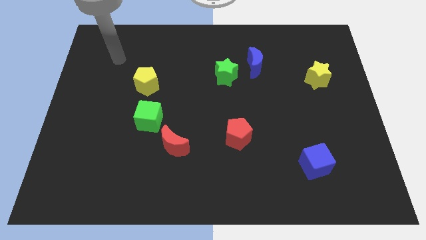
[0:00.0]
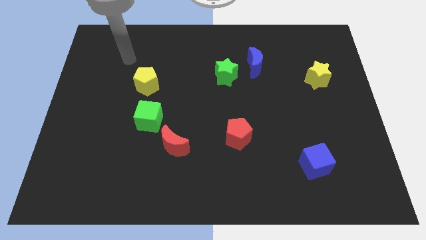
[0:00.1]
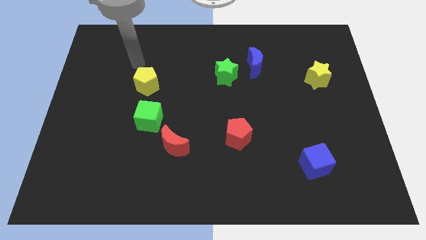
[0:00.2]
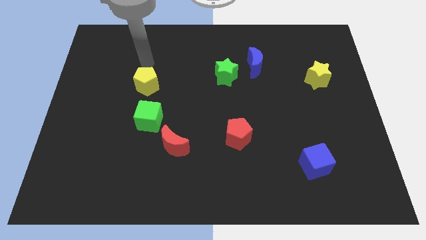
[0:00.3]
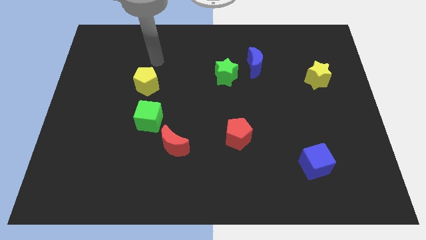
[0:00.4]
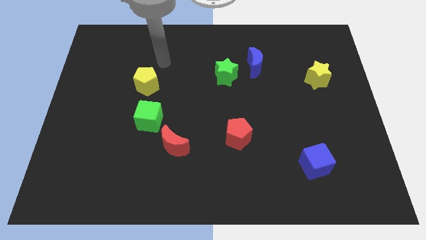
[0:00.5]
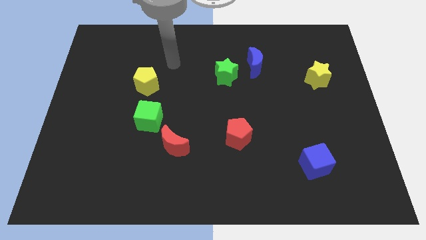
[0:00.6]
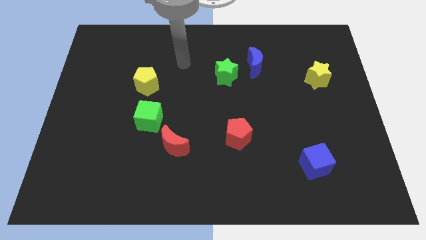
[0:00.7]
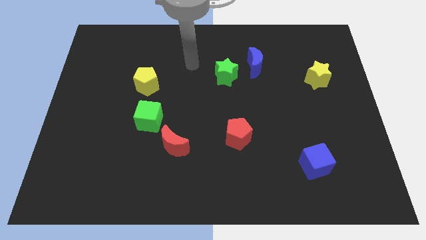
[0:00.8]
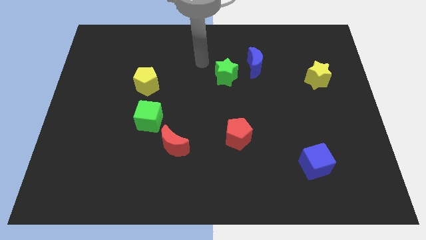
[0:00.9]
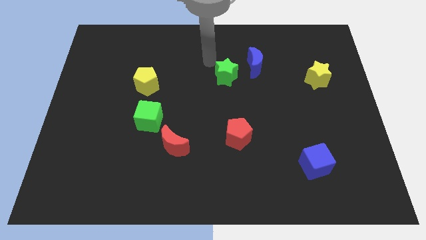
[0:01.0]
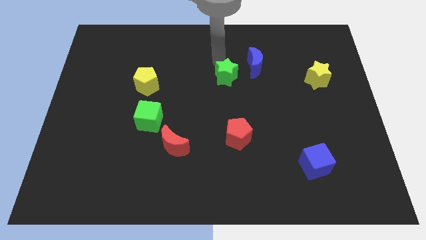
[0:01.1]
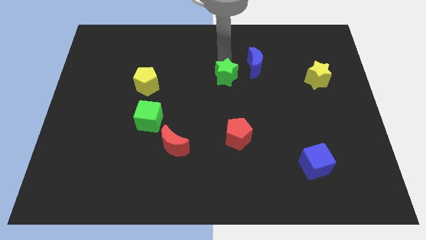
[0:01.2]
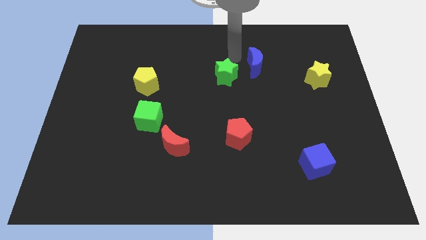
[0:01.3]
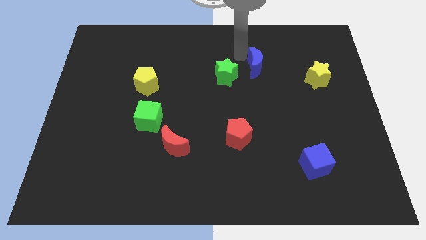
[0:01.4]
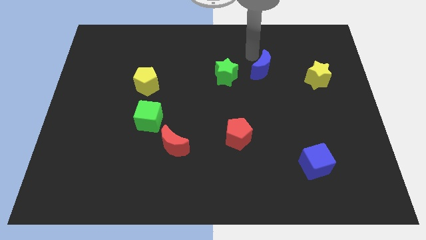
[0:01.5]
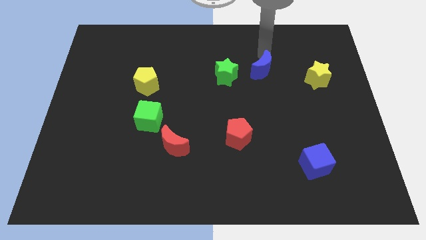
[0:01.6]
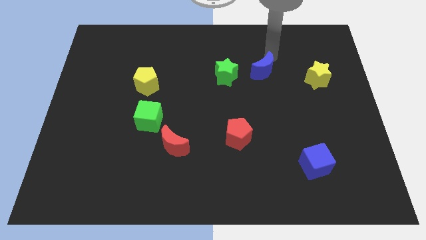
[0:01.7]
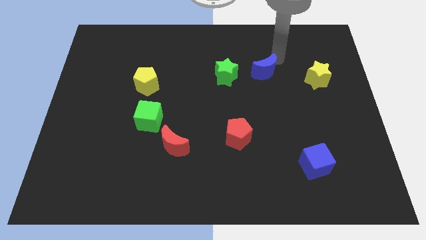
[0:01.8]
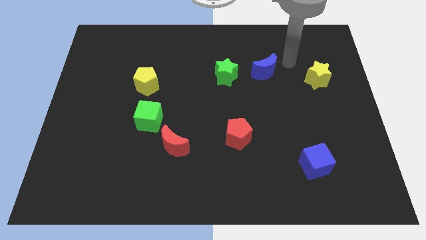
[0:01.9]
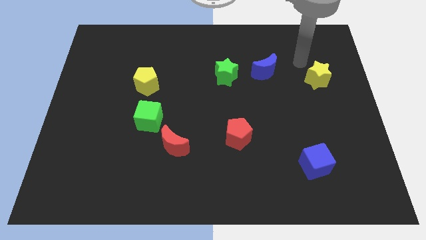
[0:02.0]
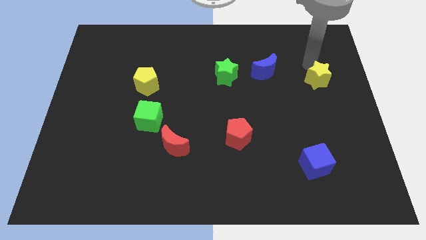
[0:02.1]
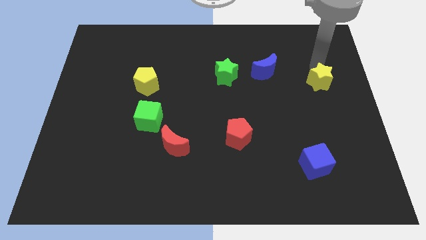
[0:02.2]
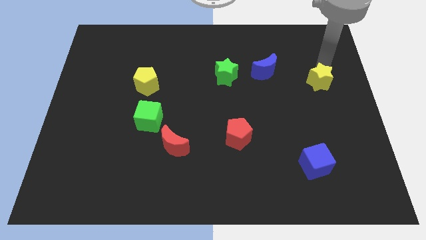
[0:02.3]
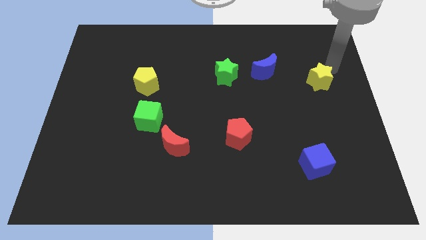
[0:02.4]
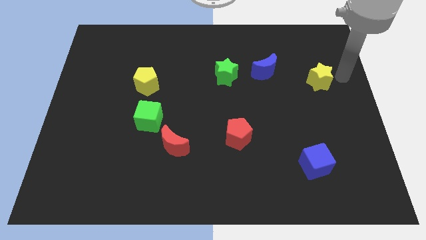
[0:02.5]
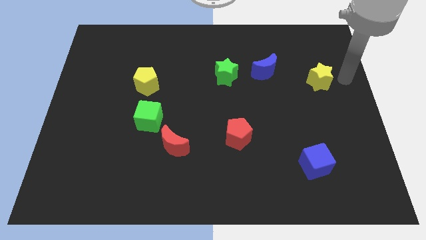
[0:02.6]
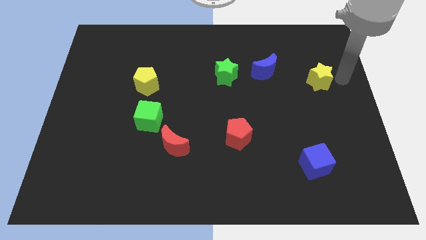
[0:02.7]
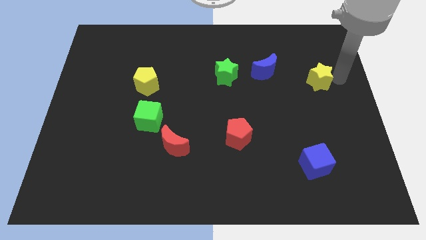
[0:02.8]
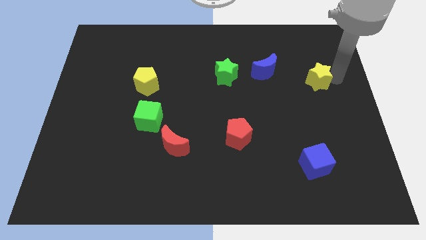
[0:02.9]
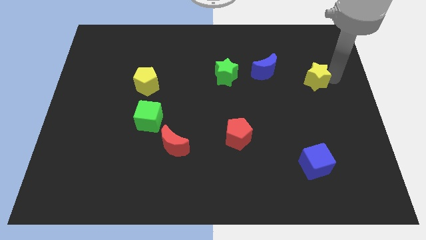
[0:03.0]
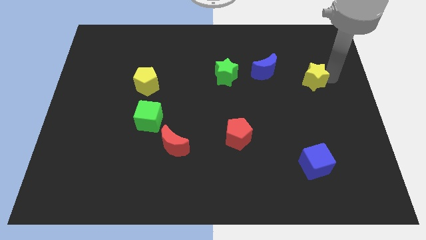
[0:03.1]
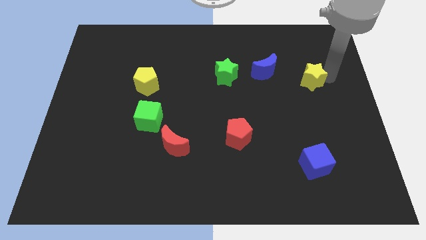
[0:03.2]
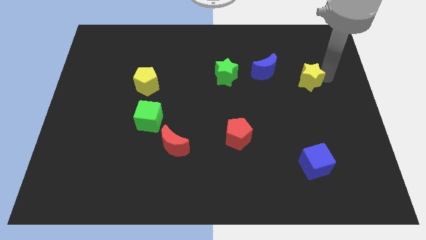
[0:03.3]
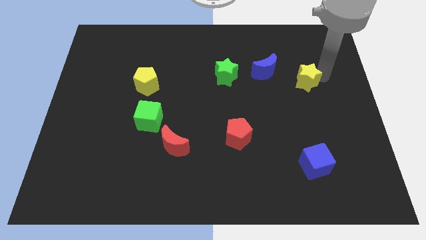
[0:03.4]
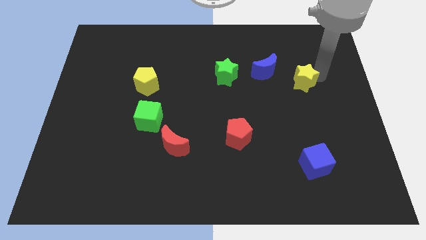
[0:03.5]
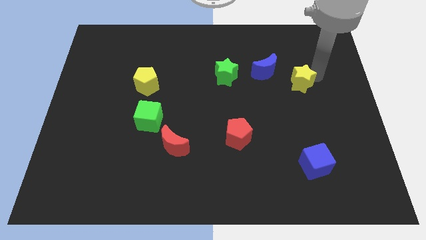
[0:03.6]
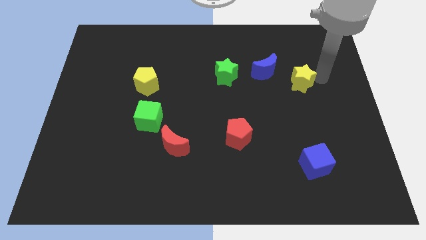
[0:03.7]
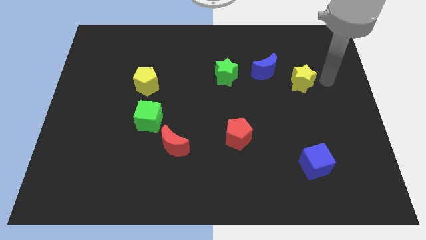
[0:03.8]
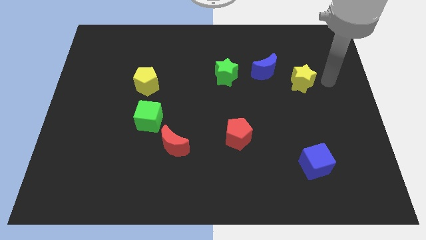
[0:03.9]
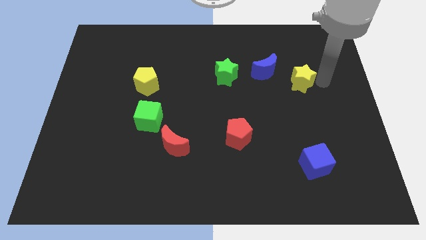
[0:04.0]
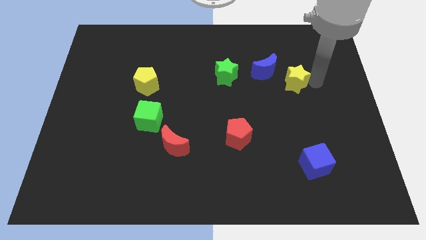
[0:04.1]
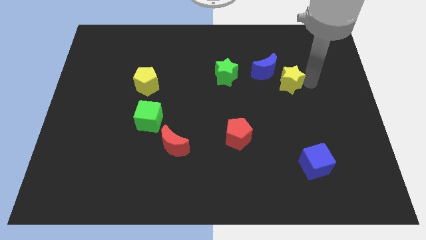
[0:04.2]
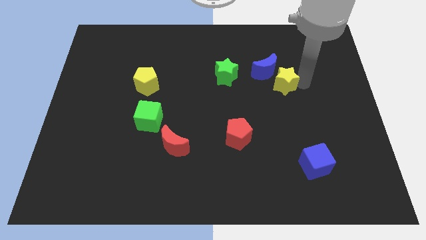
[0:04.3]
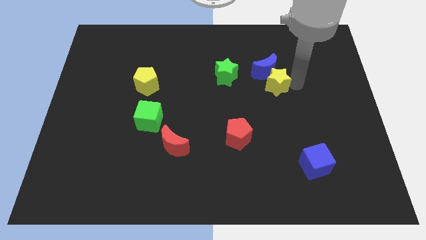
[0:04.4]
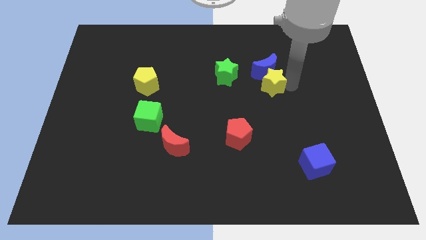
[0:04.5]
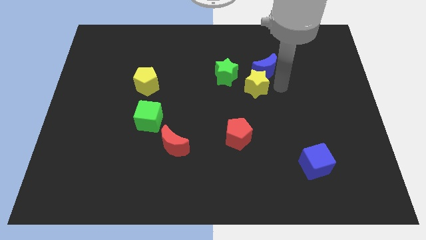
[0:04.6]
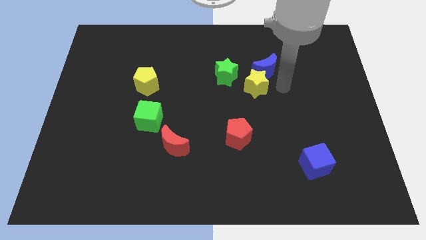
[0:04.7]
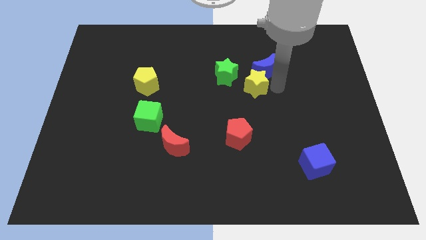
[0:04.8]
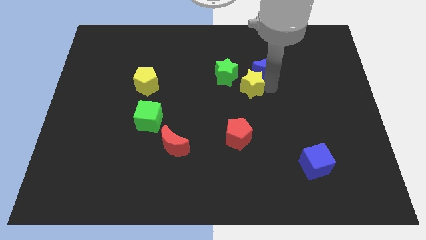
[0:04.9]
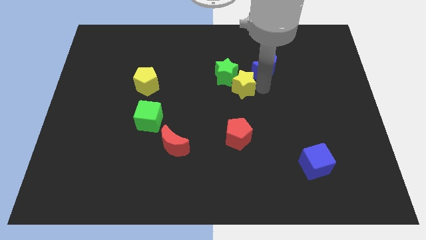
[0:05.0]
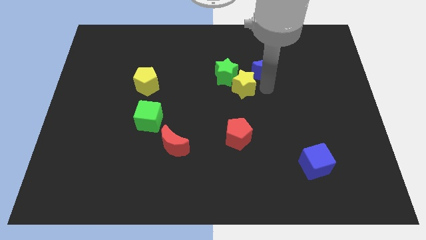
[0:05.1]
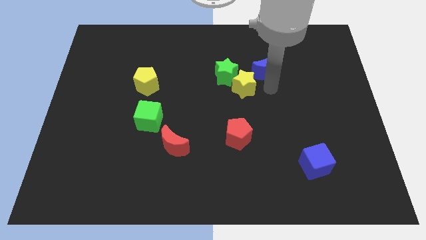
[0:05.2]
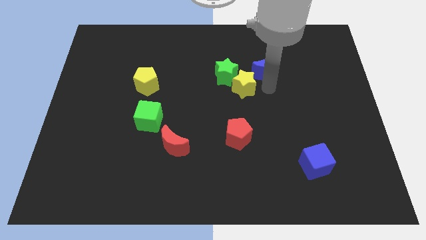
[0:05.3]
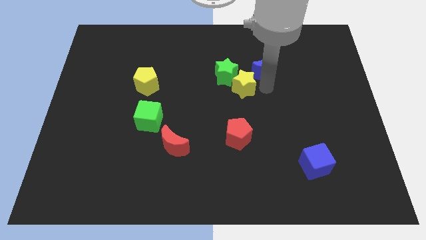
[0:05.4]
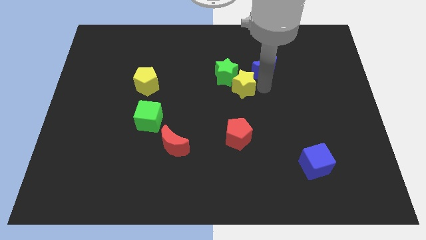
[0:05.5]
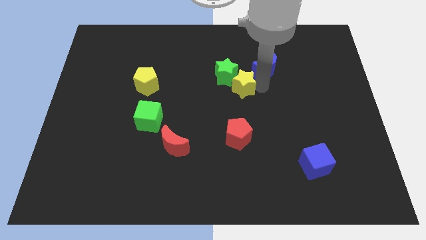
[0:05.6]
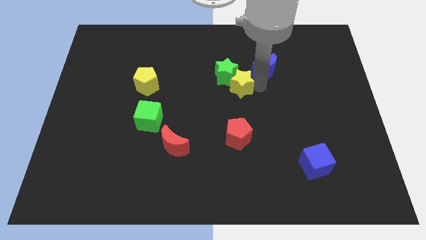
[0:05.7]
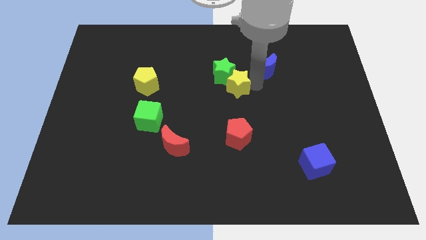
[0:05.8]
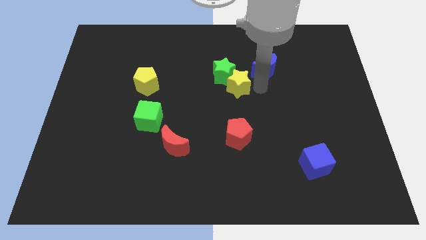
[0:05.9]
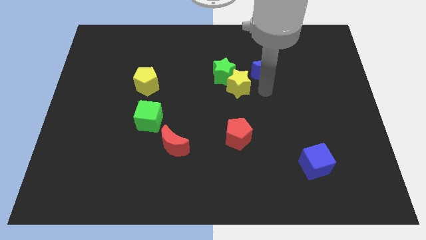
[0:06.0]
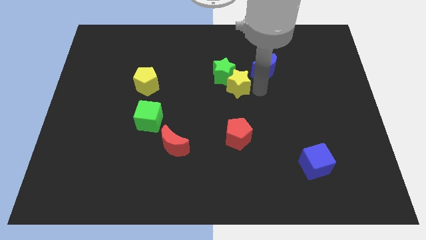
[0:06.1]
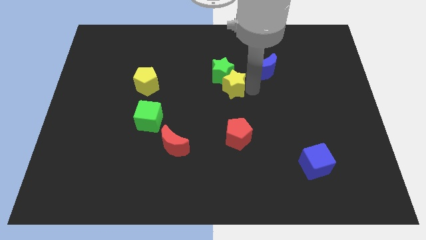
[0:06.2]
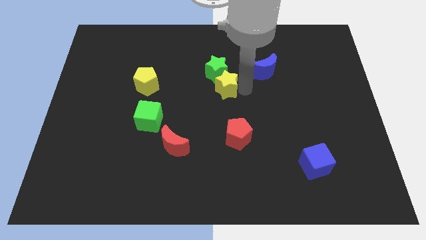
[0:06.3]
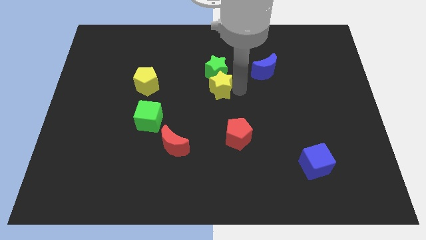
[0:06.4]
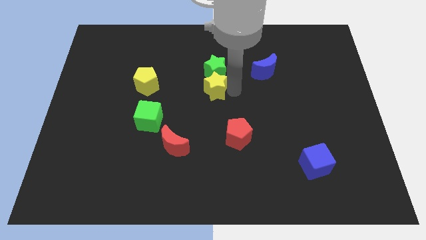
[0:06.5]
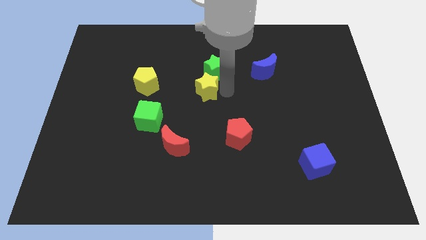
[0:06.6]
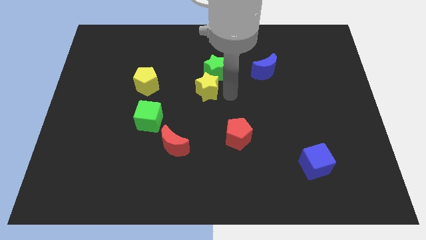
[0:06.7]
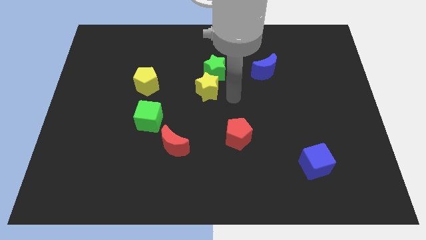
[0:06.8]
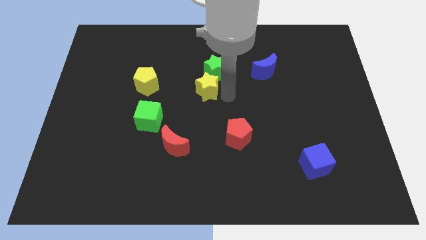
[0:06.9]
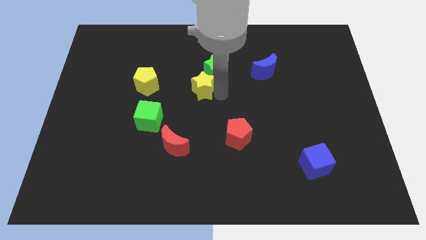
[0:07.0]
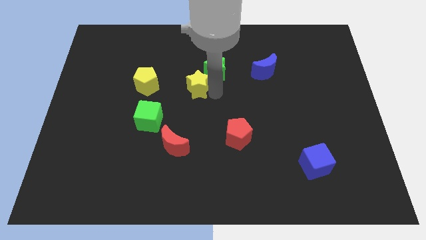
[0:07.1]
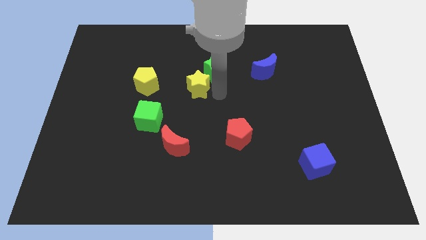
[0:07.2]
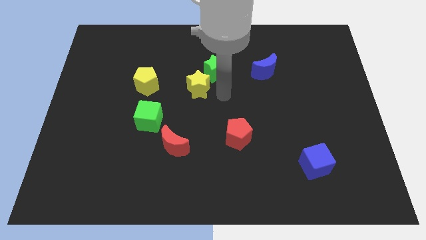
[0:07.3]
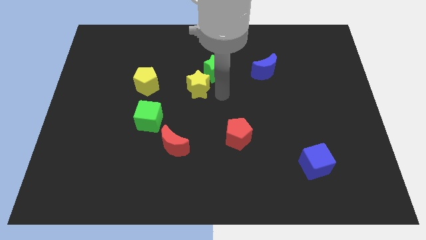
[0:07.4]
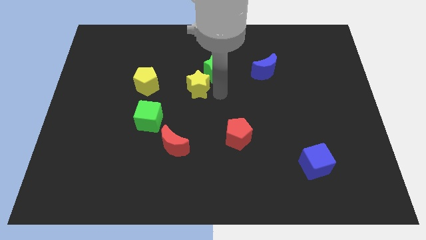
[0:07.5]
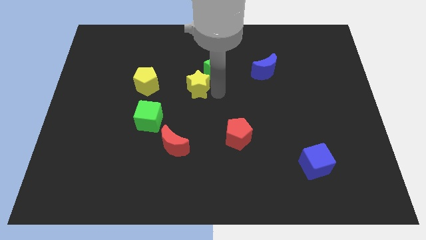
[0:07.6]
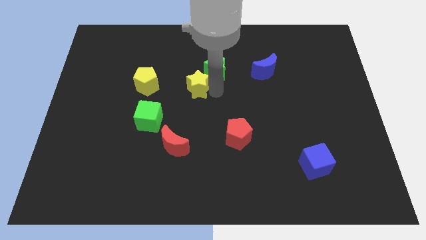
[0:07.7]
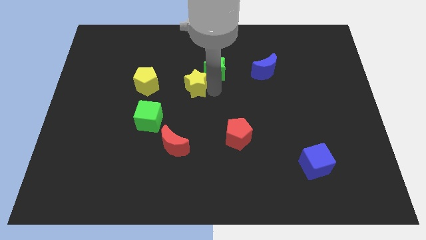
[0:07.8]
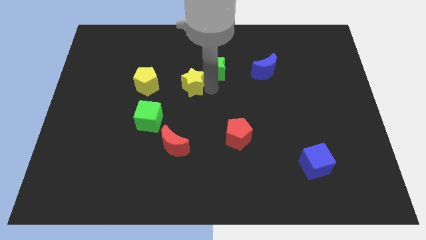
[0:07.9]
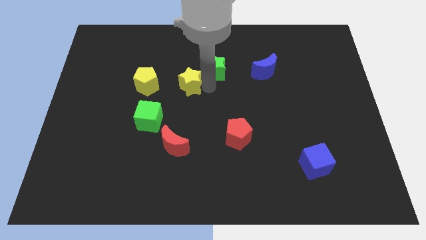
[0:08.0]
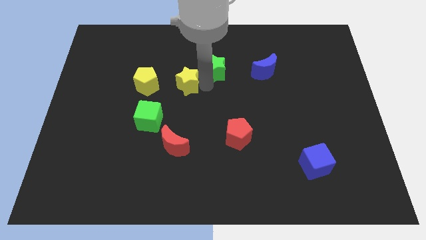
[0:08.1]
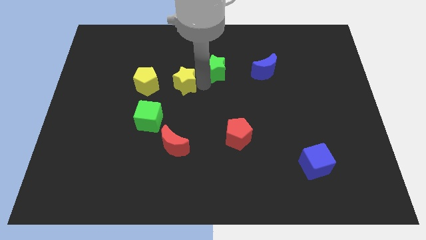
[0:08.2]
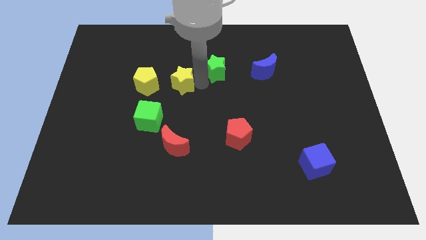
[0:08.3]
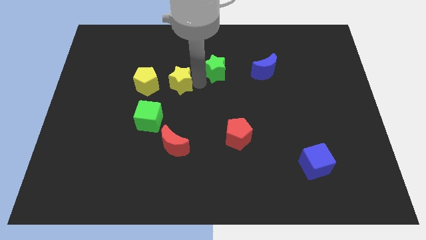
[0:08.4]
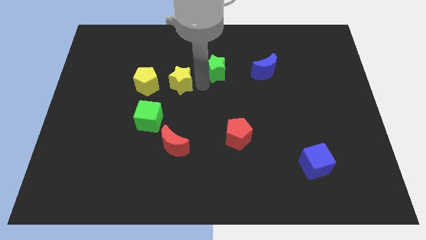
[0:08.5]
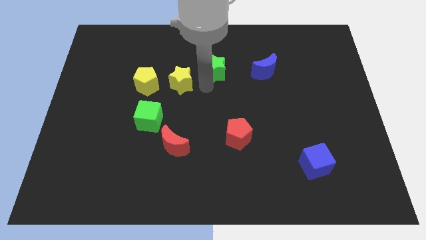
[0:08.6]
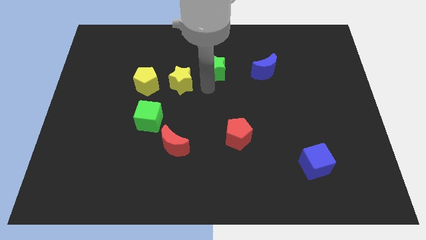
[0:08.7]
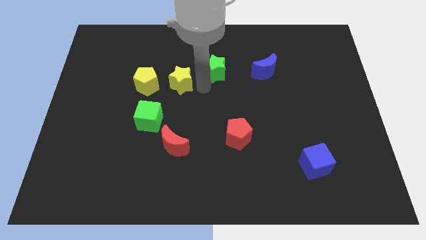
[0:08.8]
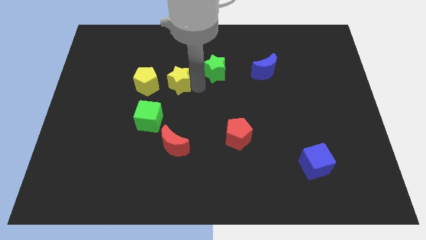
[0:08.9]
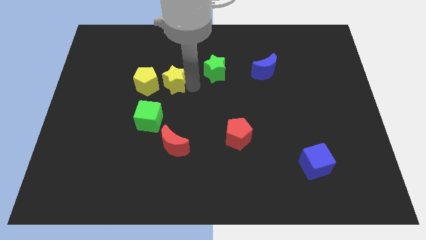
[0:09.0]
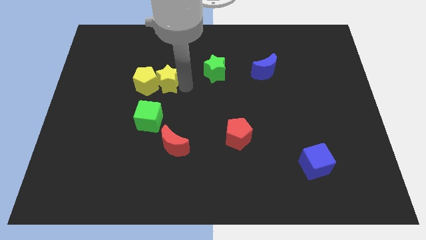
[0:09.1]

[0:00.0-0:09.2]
push the yellow star to the top side of the green cube
